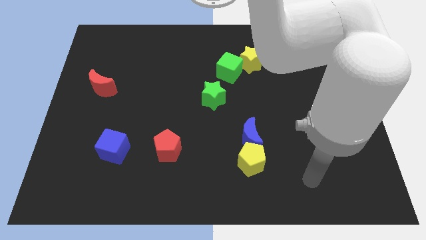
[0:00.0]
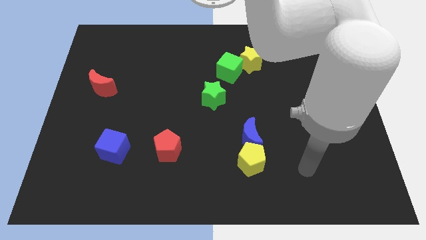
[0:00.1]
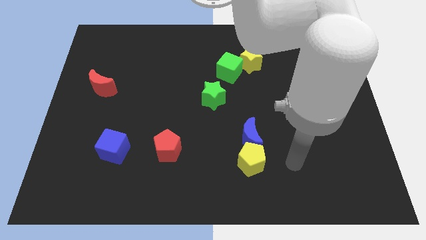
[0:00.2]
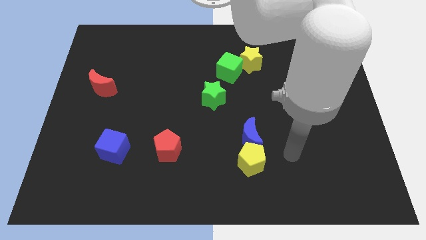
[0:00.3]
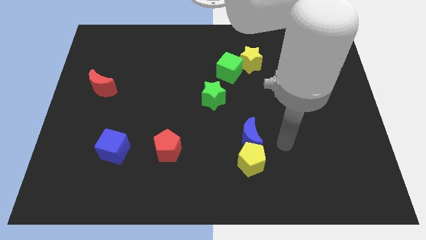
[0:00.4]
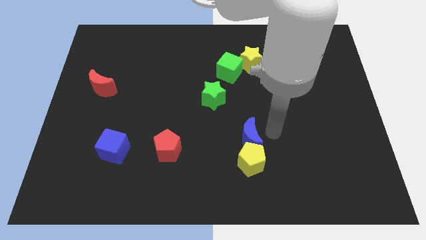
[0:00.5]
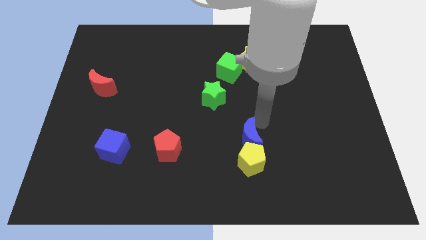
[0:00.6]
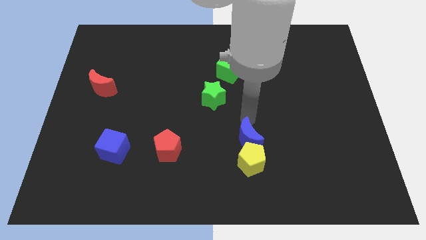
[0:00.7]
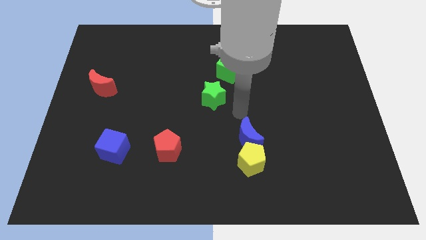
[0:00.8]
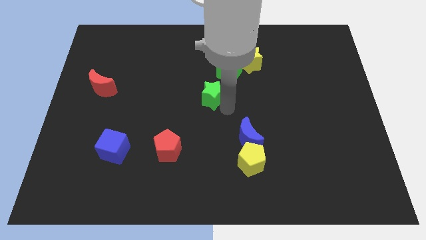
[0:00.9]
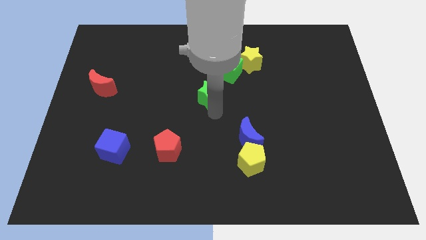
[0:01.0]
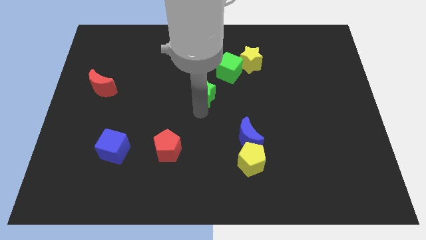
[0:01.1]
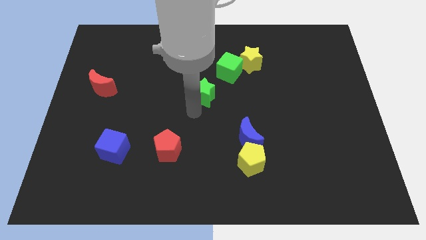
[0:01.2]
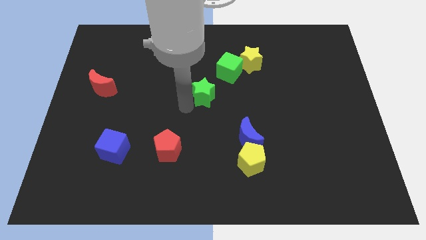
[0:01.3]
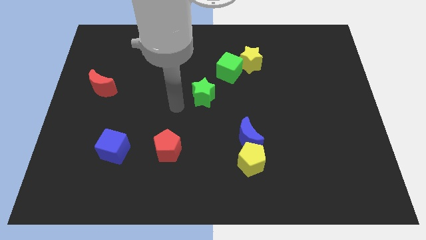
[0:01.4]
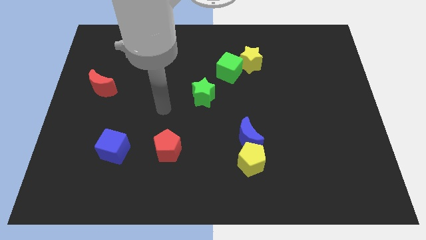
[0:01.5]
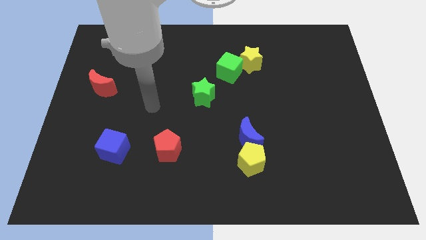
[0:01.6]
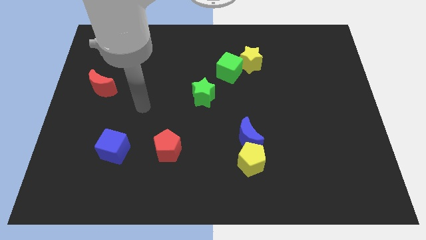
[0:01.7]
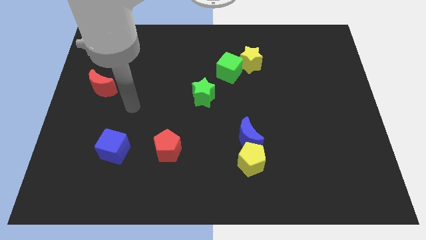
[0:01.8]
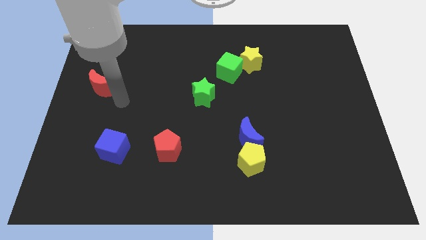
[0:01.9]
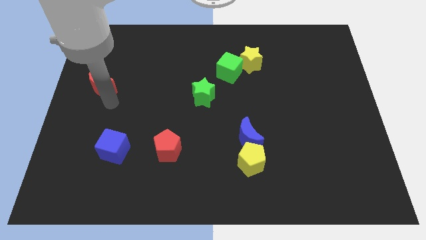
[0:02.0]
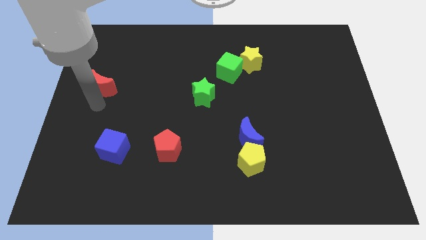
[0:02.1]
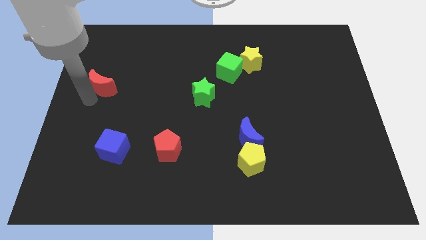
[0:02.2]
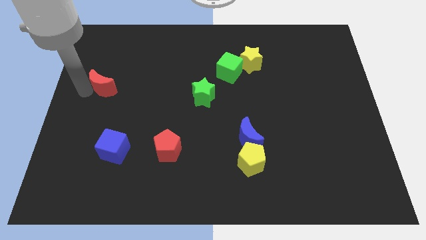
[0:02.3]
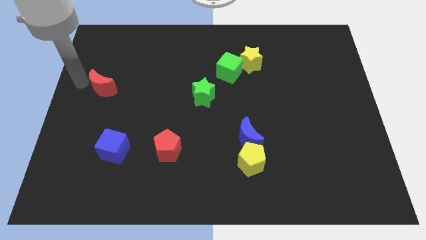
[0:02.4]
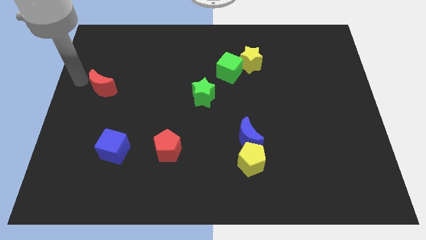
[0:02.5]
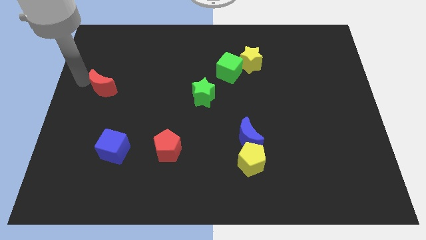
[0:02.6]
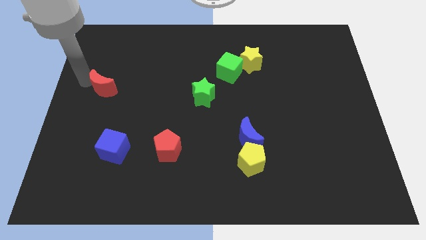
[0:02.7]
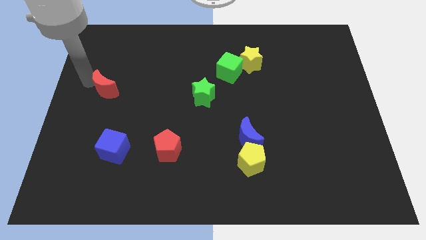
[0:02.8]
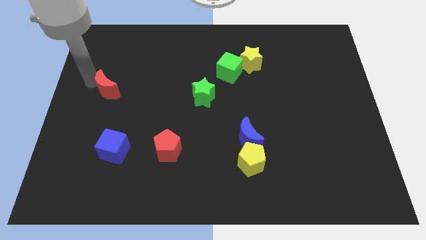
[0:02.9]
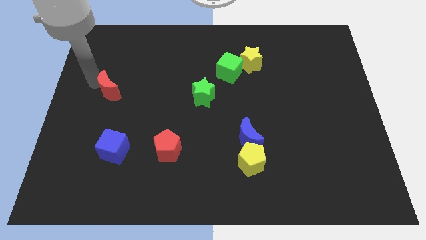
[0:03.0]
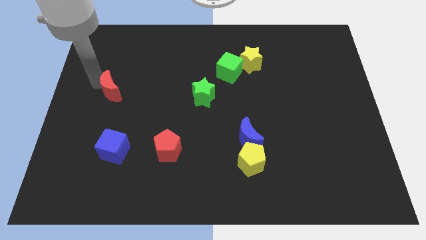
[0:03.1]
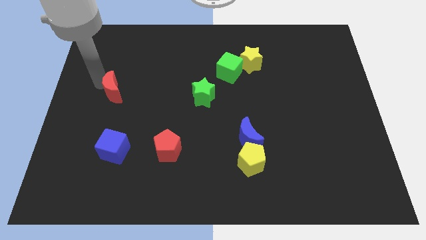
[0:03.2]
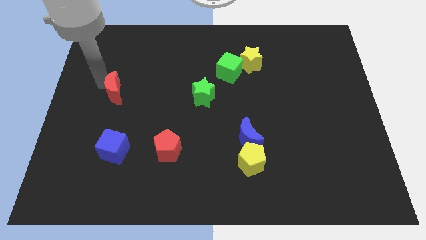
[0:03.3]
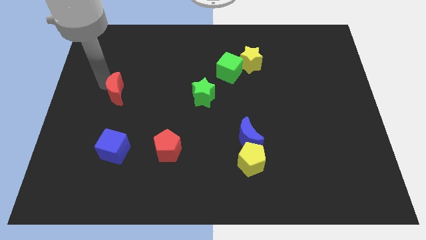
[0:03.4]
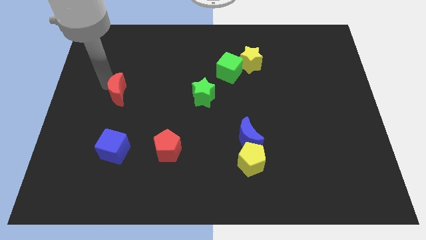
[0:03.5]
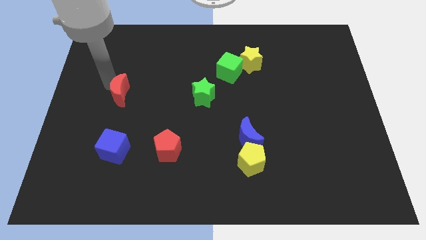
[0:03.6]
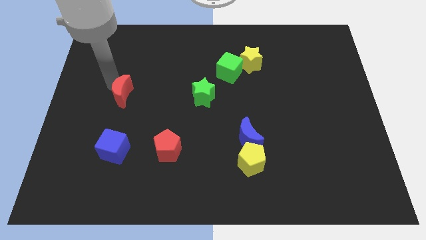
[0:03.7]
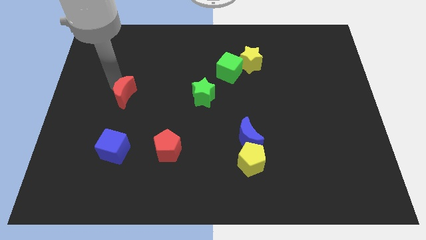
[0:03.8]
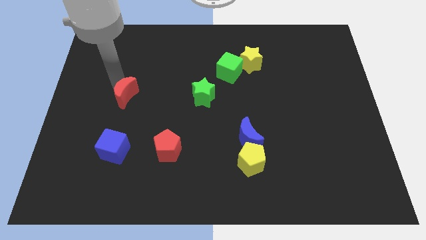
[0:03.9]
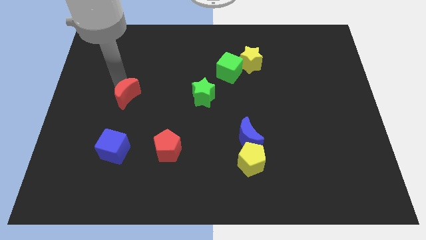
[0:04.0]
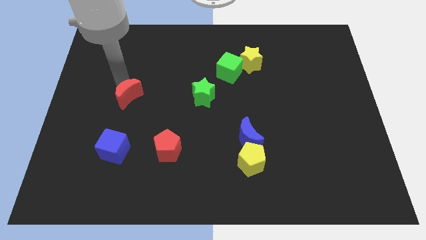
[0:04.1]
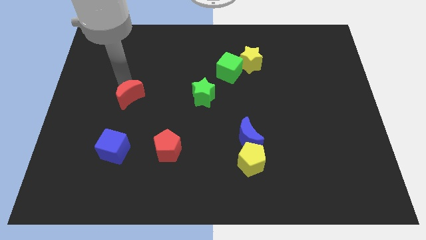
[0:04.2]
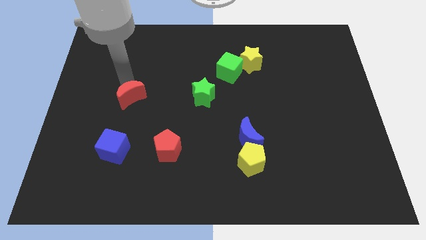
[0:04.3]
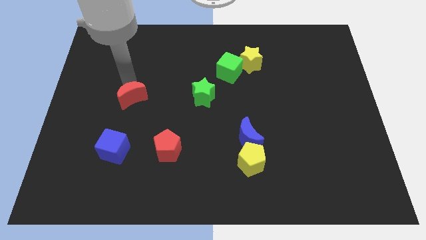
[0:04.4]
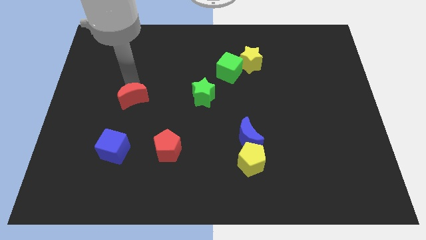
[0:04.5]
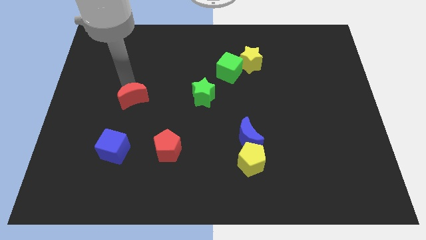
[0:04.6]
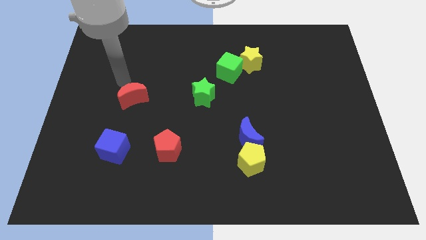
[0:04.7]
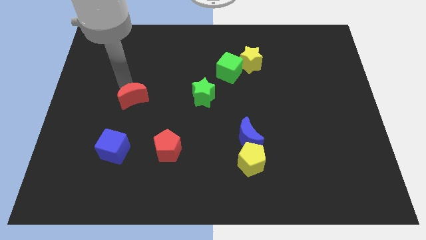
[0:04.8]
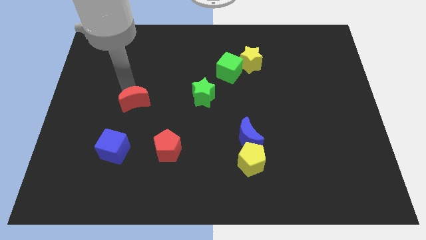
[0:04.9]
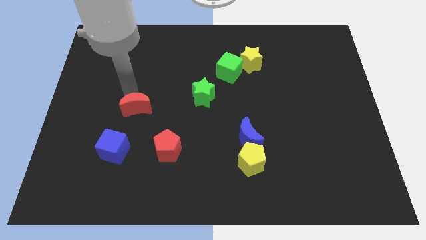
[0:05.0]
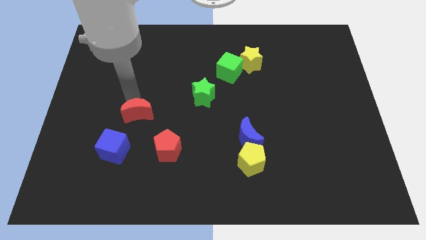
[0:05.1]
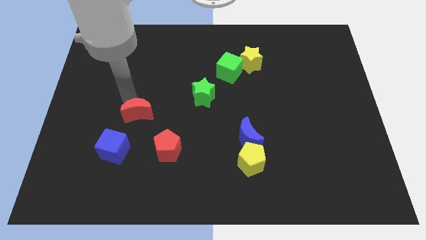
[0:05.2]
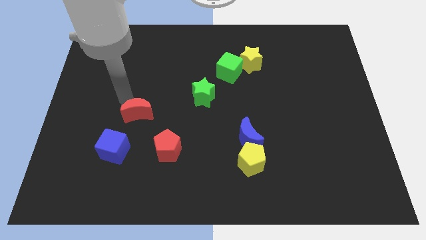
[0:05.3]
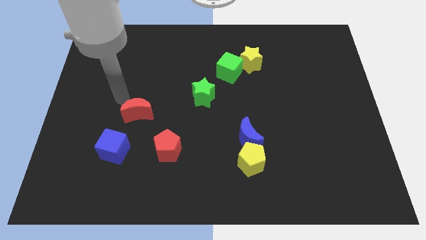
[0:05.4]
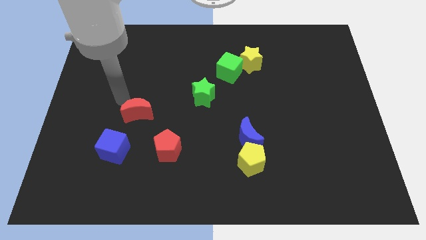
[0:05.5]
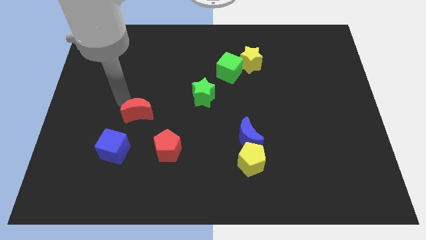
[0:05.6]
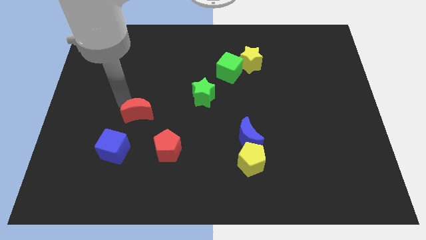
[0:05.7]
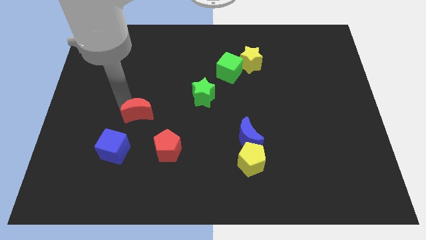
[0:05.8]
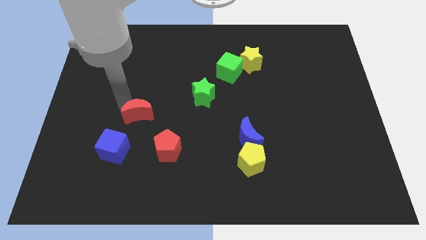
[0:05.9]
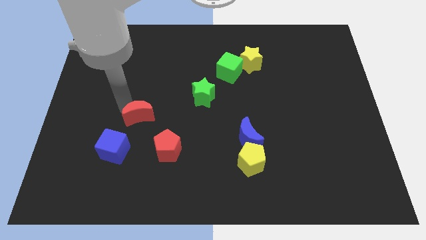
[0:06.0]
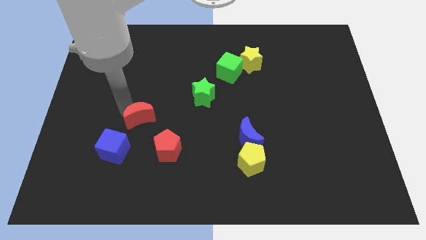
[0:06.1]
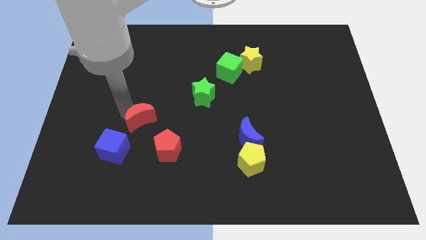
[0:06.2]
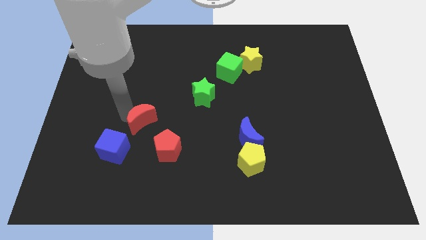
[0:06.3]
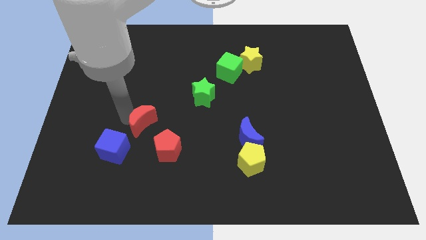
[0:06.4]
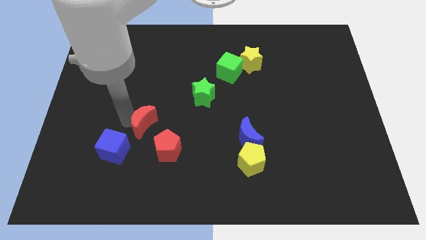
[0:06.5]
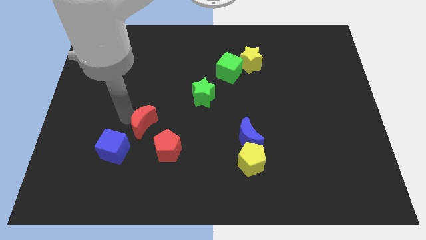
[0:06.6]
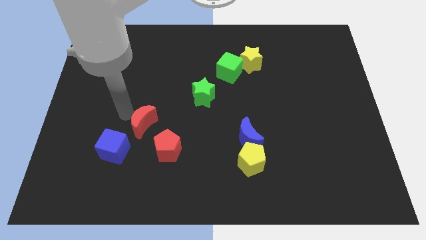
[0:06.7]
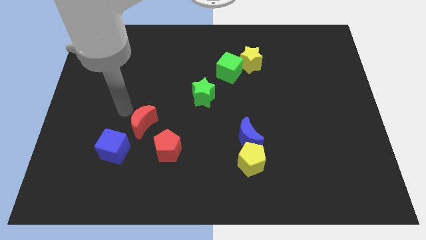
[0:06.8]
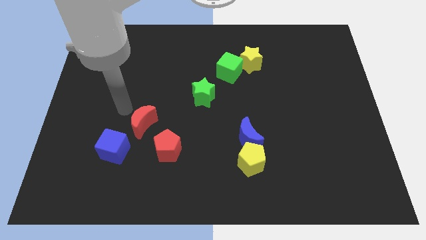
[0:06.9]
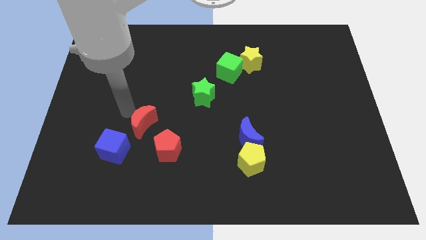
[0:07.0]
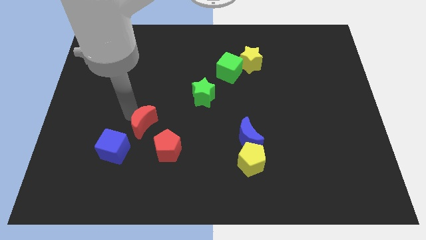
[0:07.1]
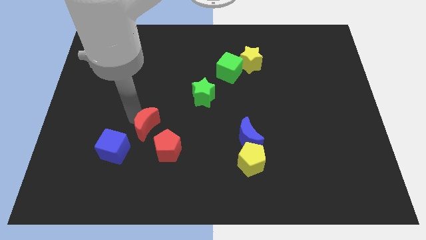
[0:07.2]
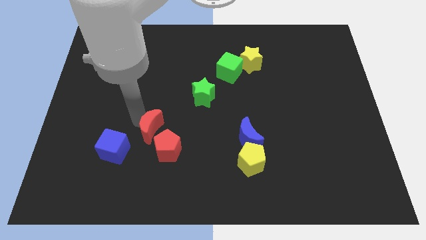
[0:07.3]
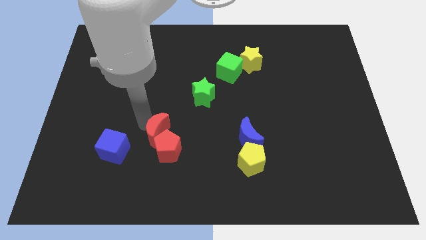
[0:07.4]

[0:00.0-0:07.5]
push the red moon close to the red pentagon

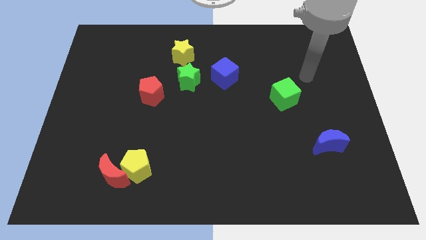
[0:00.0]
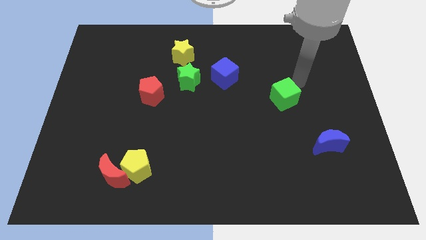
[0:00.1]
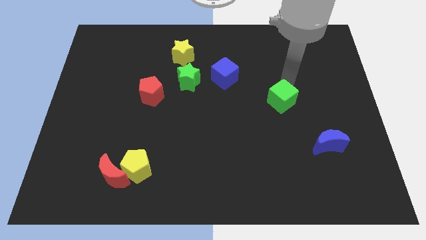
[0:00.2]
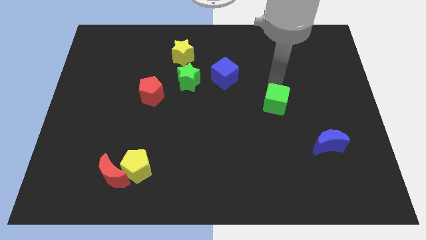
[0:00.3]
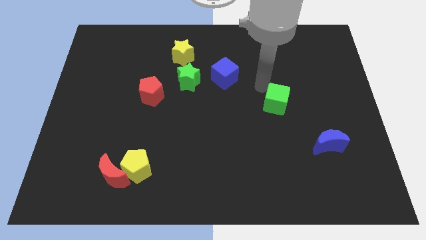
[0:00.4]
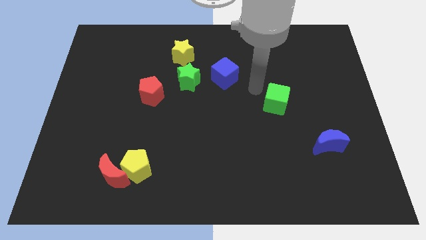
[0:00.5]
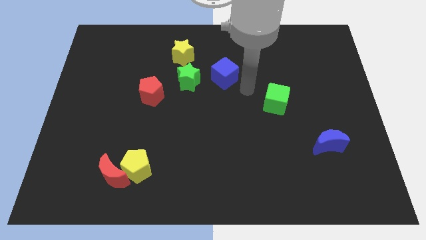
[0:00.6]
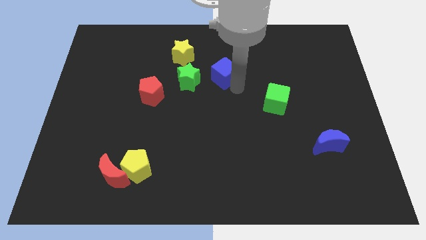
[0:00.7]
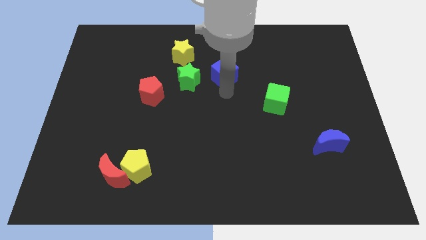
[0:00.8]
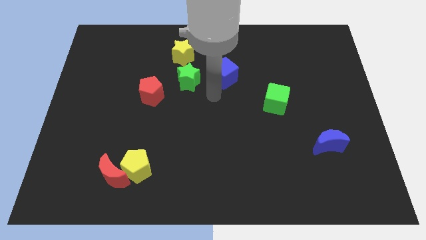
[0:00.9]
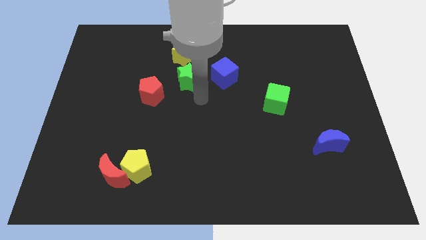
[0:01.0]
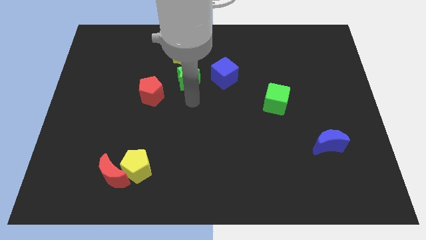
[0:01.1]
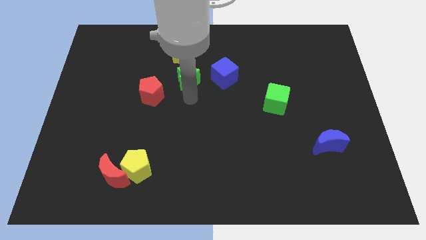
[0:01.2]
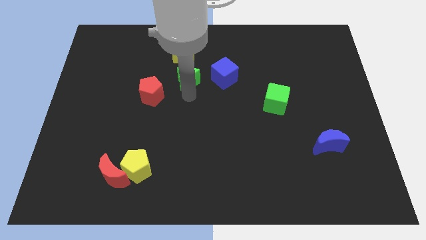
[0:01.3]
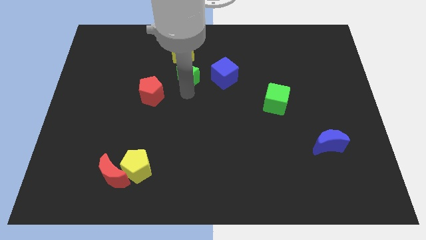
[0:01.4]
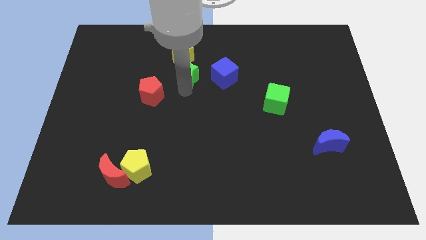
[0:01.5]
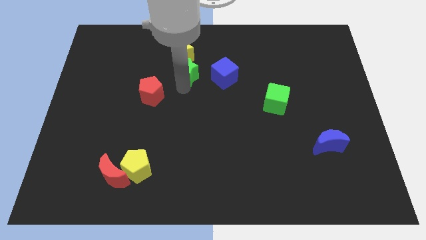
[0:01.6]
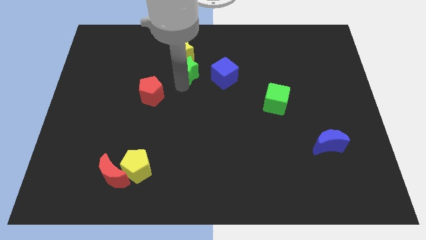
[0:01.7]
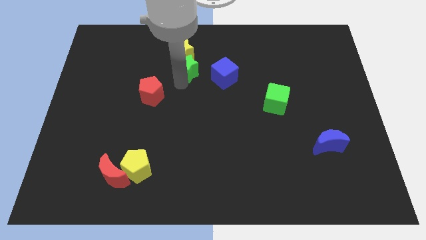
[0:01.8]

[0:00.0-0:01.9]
push the green star close to the yellow star
